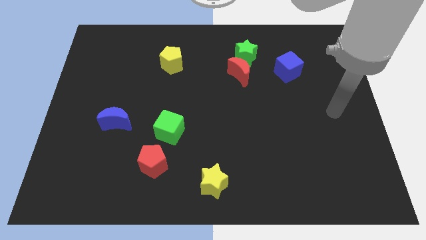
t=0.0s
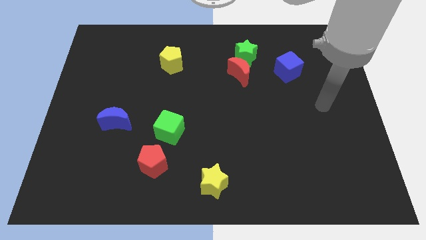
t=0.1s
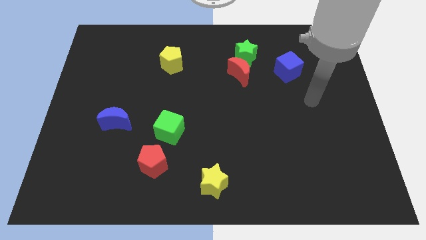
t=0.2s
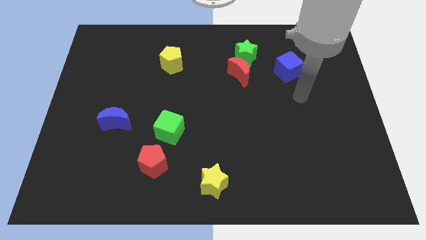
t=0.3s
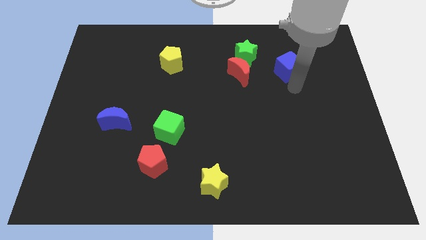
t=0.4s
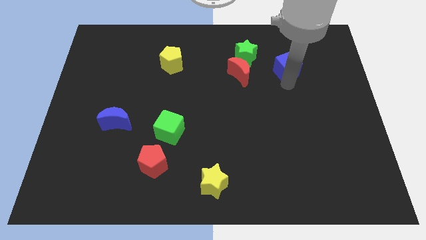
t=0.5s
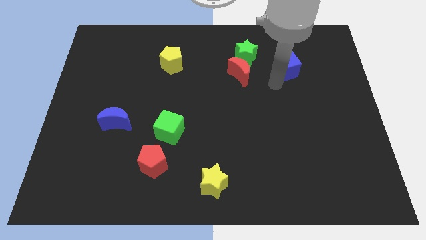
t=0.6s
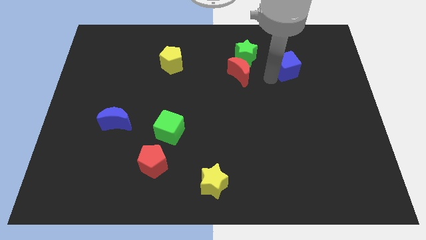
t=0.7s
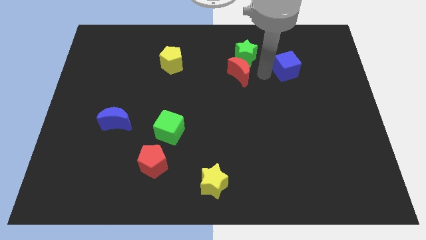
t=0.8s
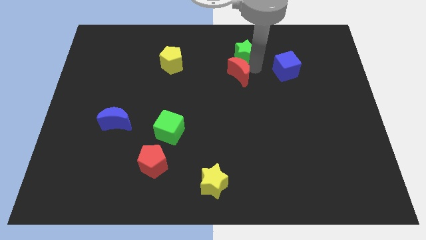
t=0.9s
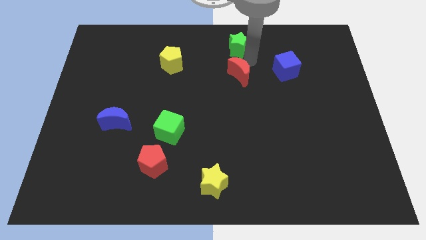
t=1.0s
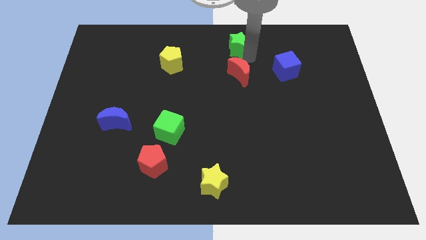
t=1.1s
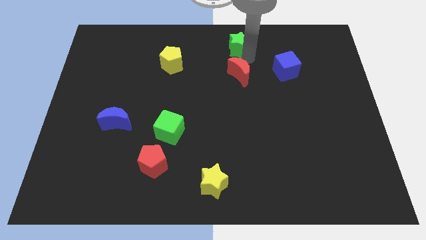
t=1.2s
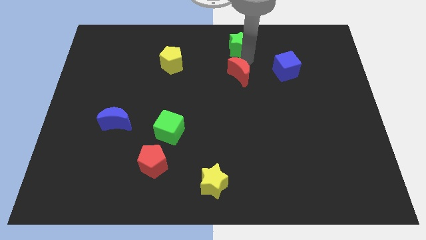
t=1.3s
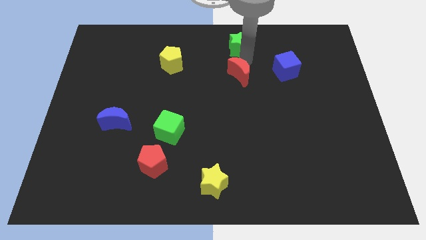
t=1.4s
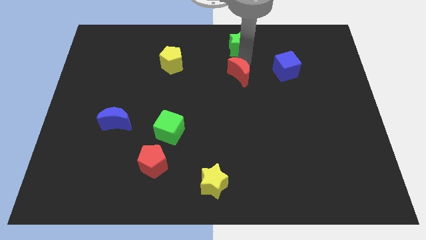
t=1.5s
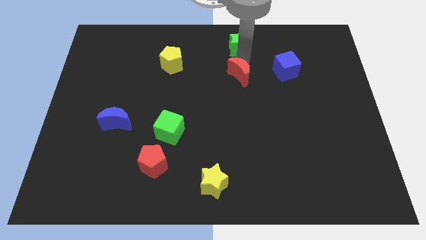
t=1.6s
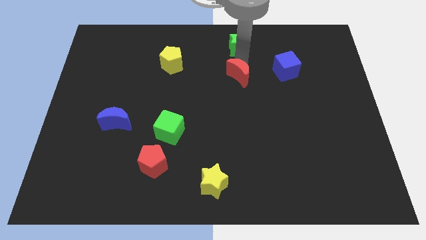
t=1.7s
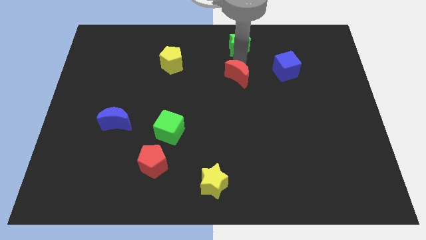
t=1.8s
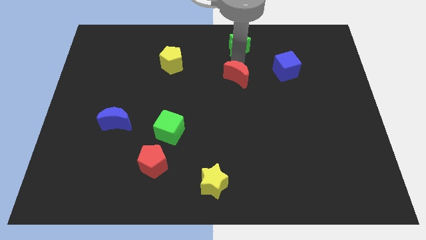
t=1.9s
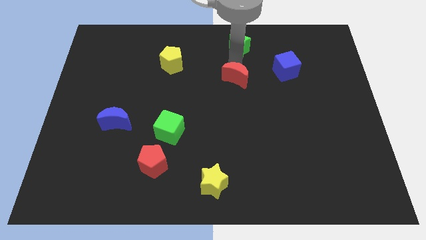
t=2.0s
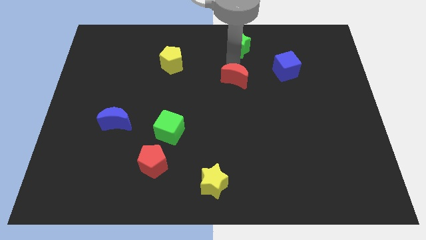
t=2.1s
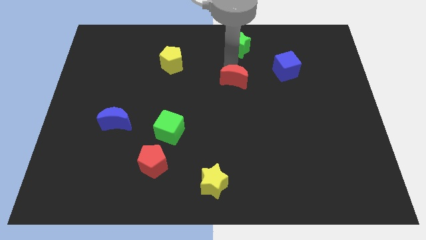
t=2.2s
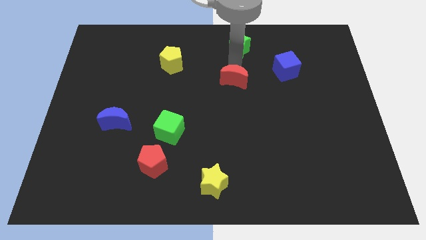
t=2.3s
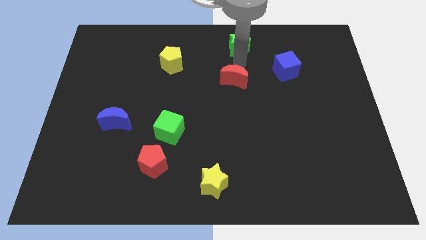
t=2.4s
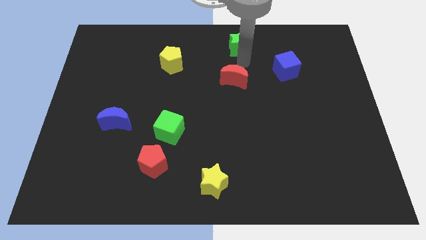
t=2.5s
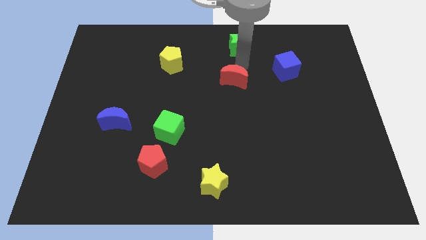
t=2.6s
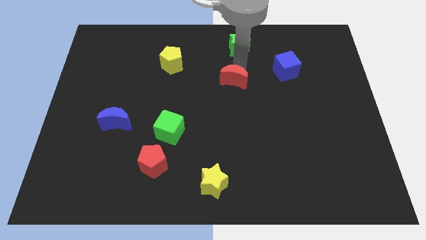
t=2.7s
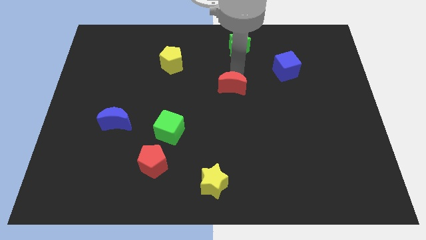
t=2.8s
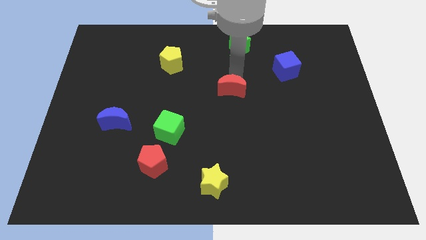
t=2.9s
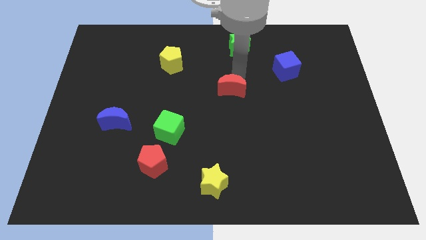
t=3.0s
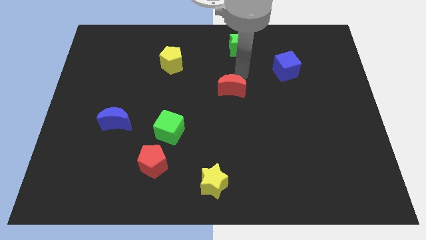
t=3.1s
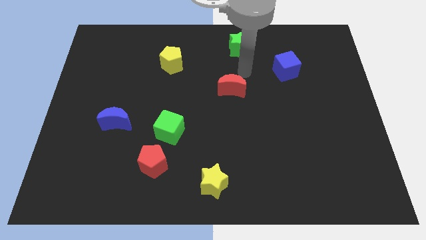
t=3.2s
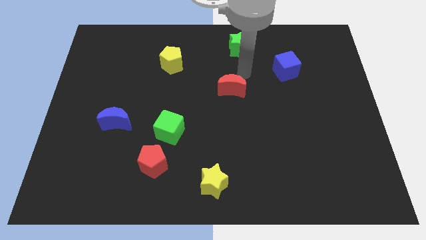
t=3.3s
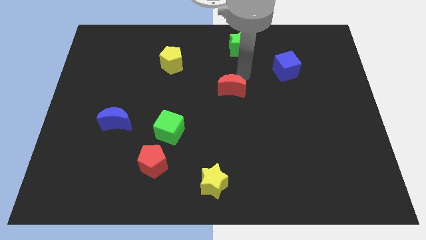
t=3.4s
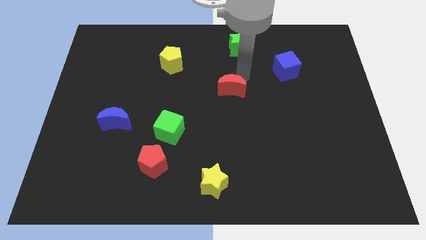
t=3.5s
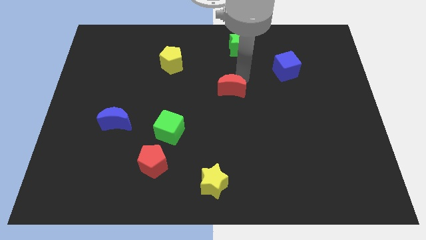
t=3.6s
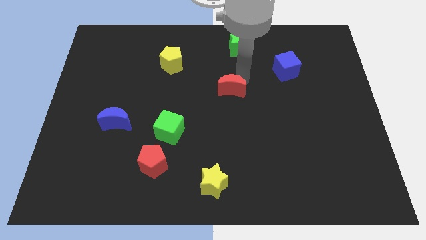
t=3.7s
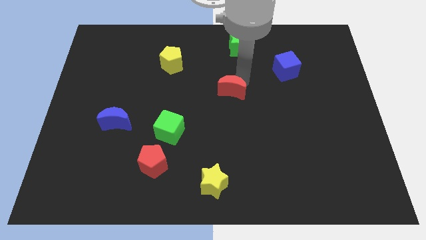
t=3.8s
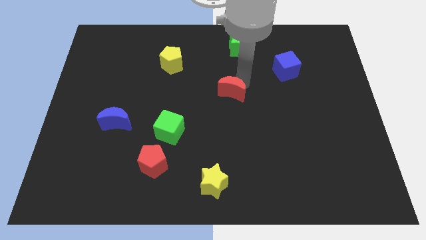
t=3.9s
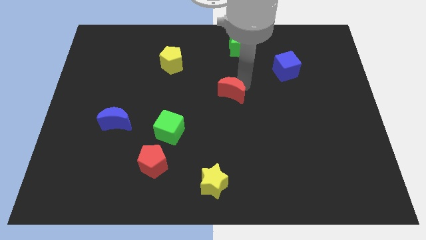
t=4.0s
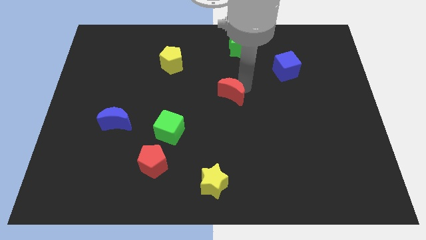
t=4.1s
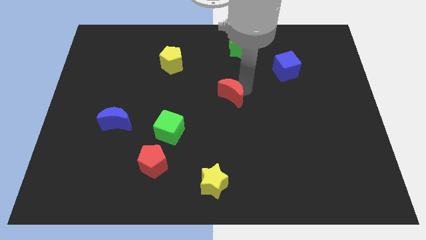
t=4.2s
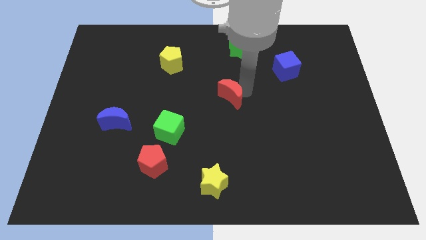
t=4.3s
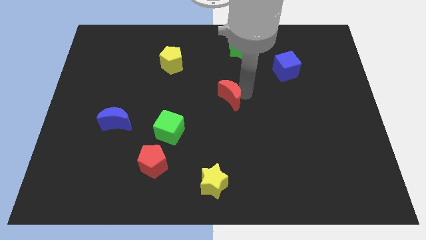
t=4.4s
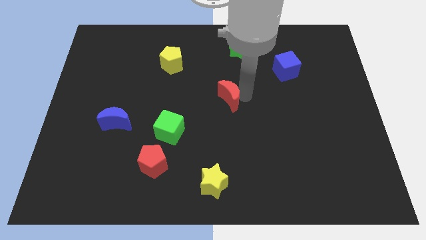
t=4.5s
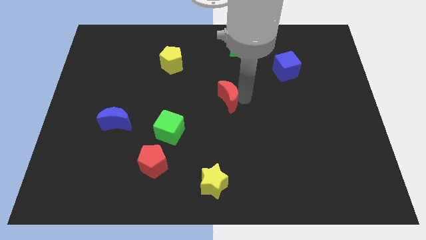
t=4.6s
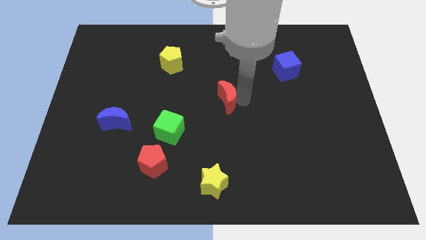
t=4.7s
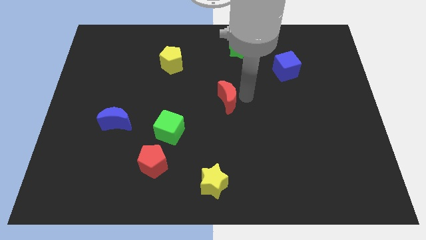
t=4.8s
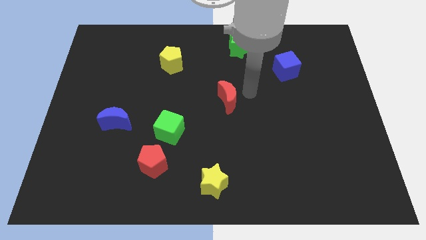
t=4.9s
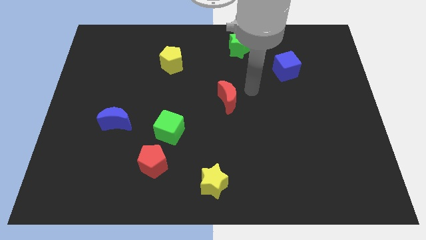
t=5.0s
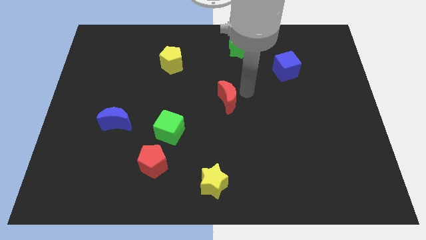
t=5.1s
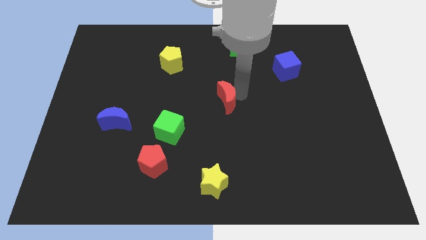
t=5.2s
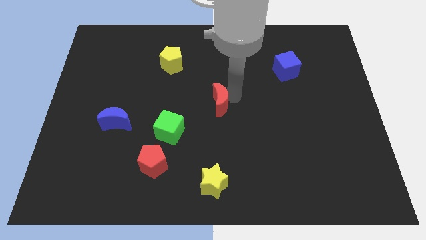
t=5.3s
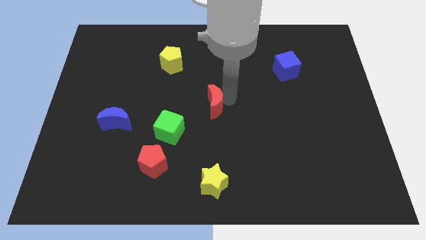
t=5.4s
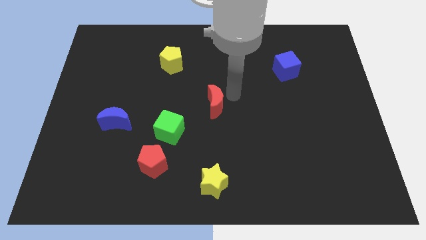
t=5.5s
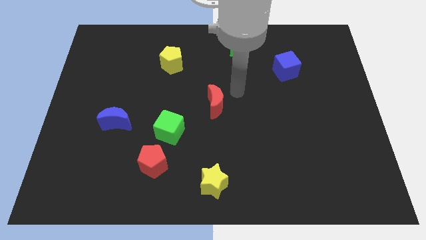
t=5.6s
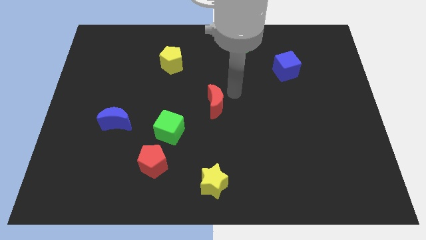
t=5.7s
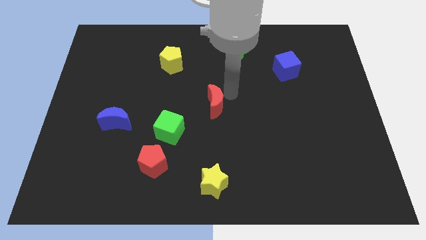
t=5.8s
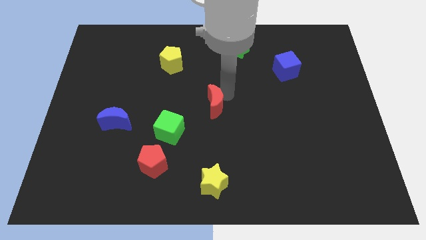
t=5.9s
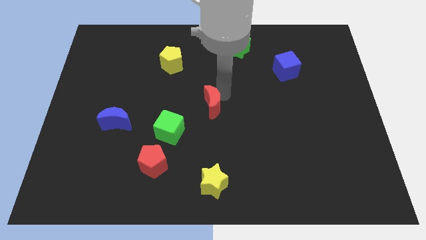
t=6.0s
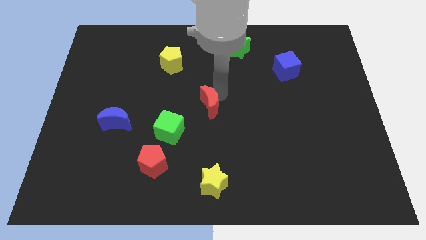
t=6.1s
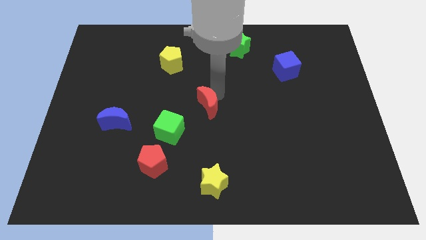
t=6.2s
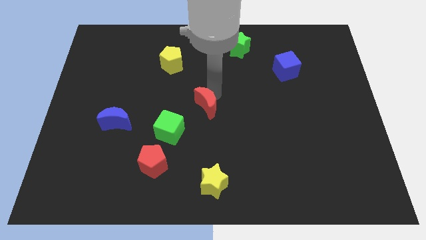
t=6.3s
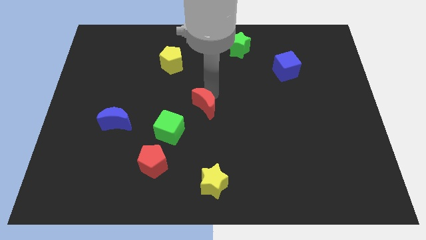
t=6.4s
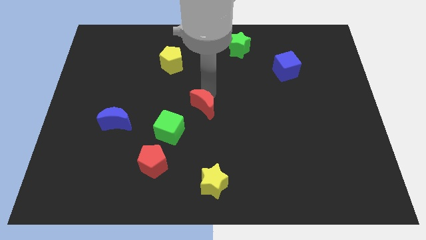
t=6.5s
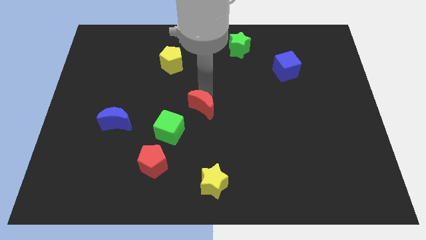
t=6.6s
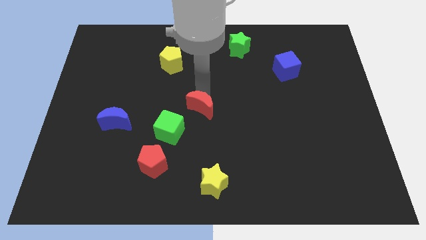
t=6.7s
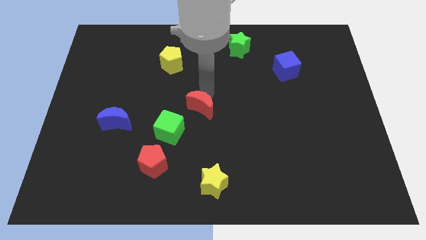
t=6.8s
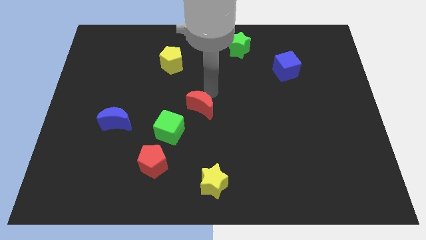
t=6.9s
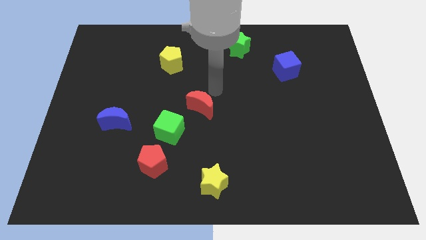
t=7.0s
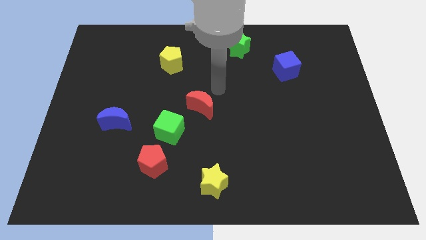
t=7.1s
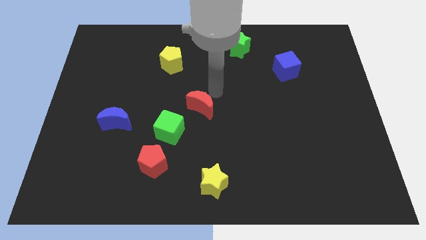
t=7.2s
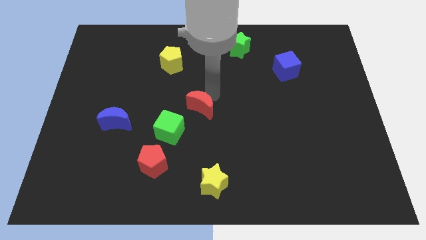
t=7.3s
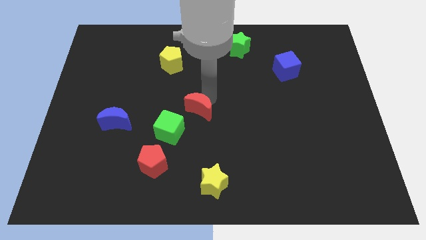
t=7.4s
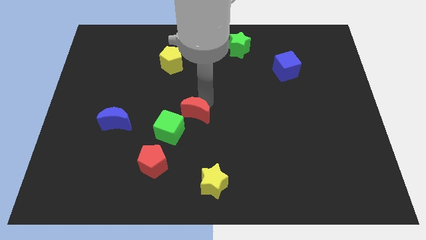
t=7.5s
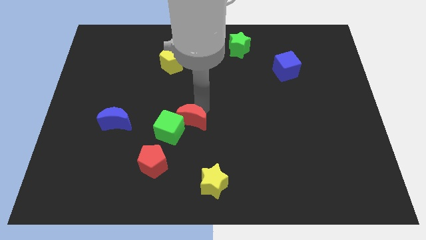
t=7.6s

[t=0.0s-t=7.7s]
slide the red moon next to the green cube
